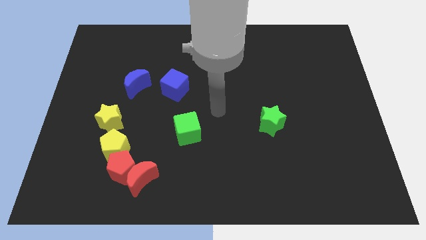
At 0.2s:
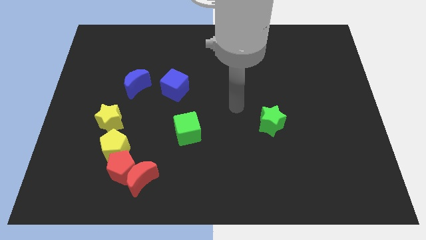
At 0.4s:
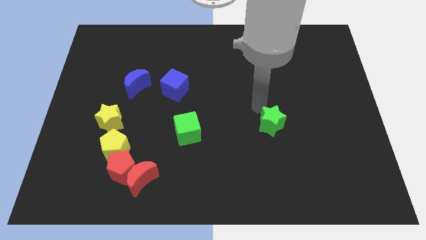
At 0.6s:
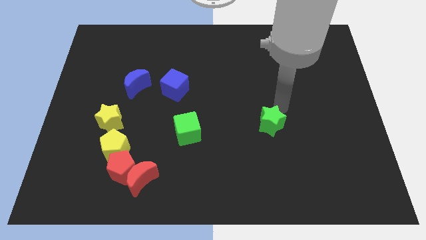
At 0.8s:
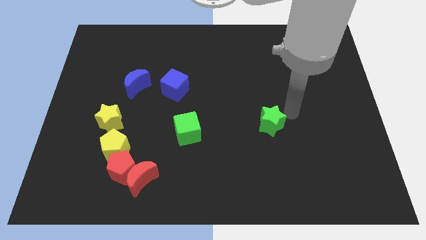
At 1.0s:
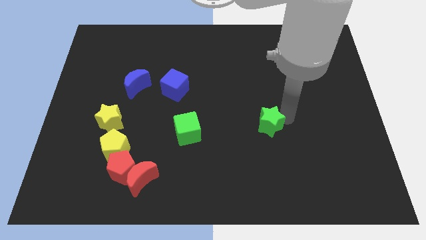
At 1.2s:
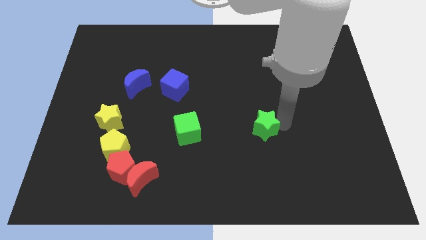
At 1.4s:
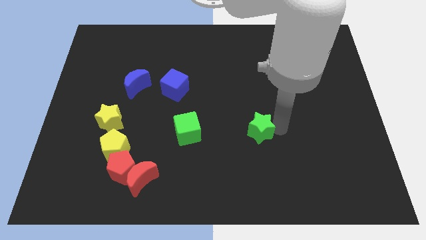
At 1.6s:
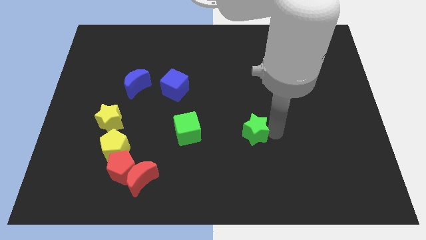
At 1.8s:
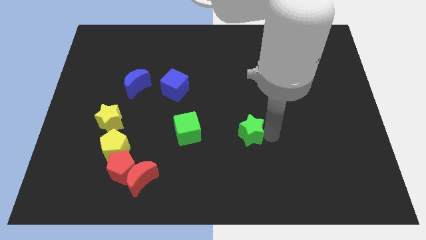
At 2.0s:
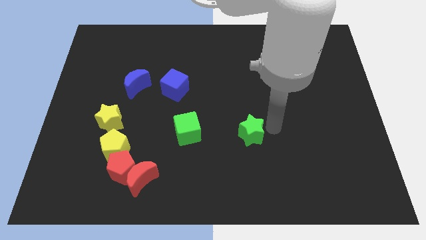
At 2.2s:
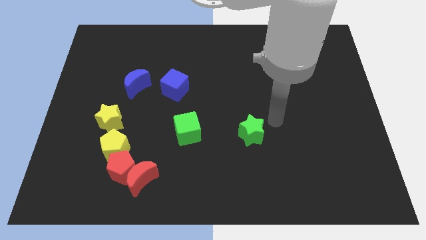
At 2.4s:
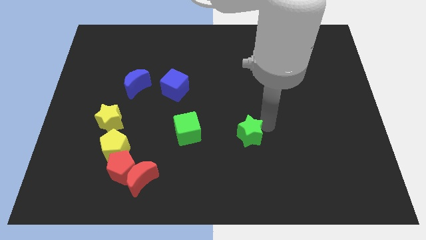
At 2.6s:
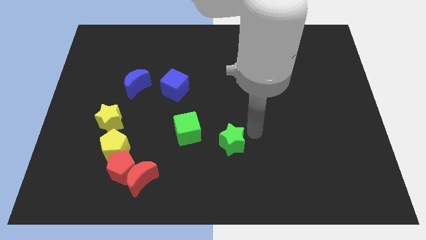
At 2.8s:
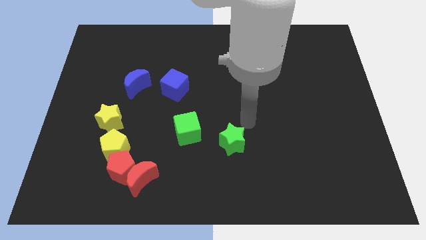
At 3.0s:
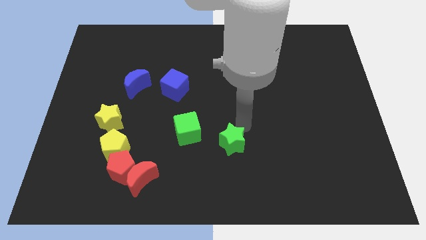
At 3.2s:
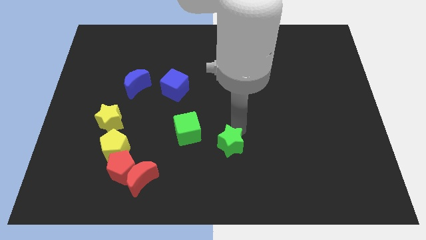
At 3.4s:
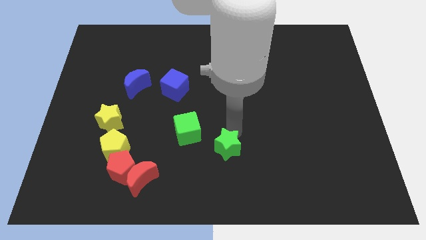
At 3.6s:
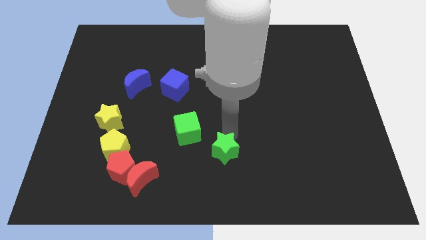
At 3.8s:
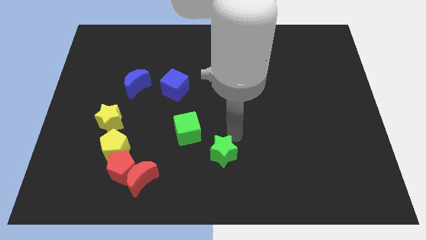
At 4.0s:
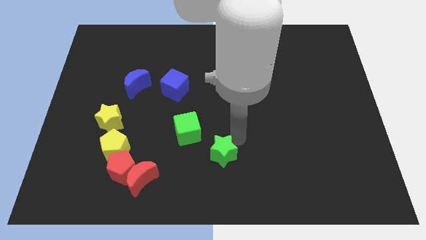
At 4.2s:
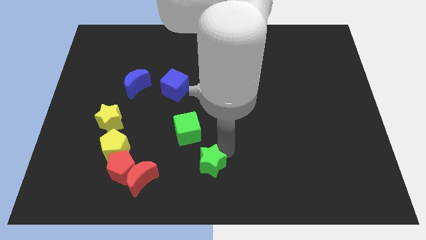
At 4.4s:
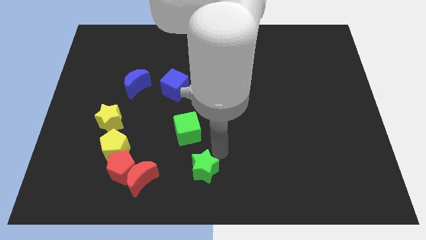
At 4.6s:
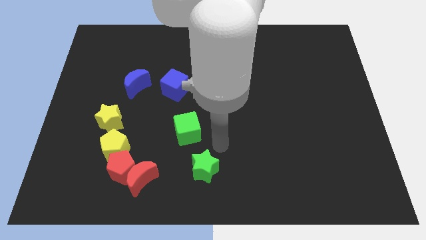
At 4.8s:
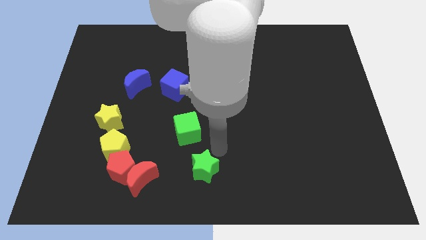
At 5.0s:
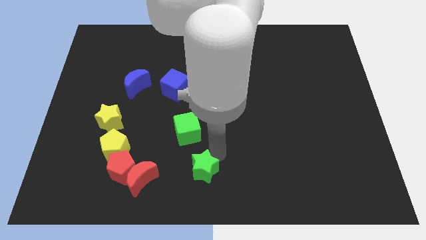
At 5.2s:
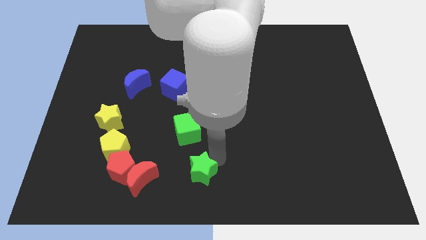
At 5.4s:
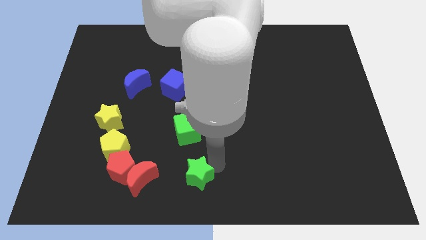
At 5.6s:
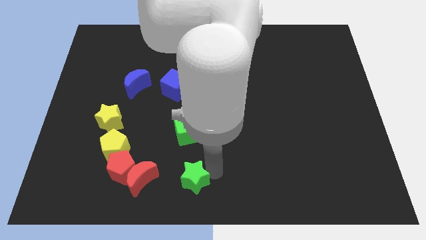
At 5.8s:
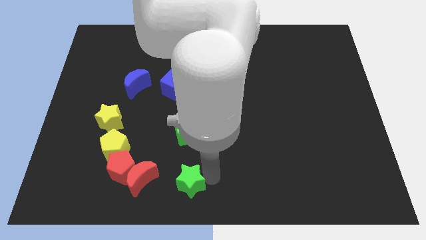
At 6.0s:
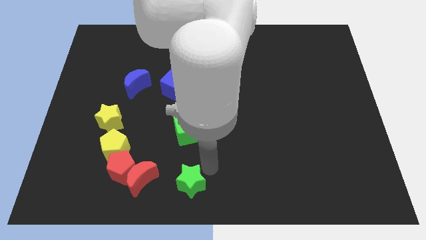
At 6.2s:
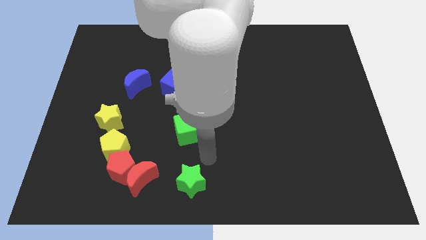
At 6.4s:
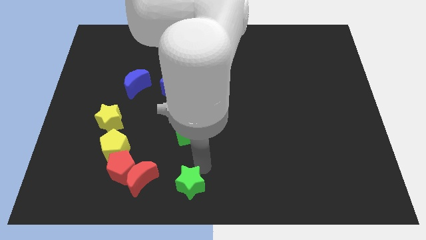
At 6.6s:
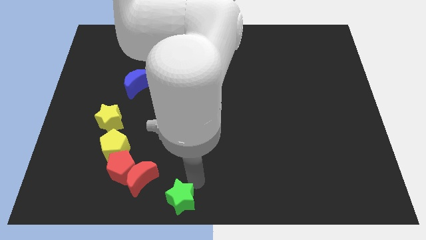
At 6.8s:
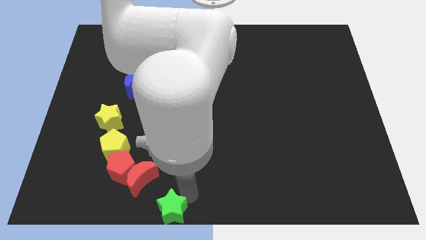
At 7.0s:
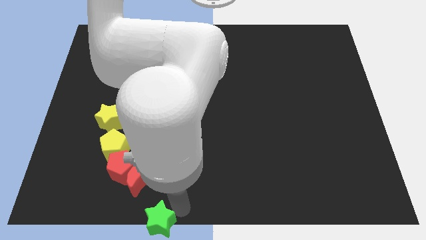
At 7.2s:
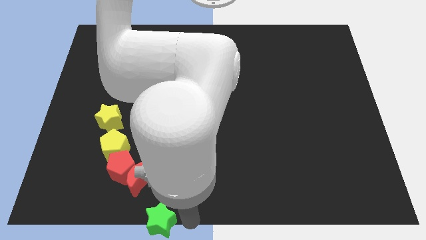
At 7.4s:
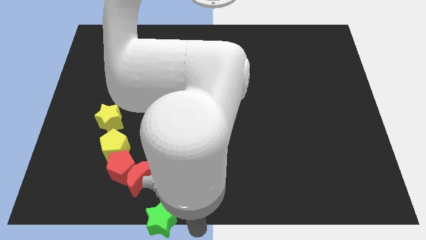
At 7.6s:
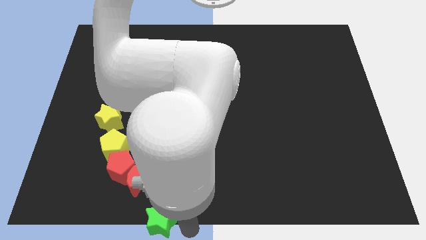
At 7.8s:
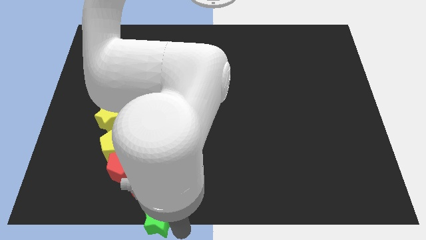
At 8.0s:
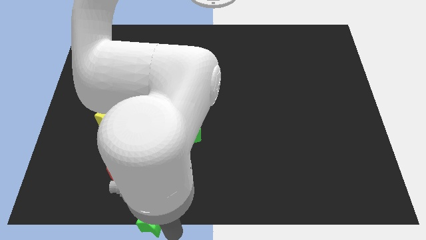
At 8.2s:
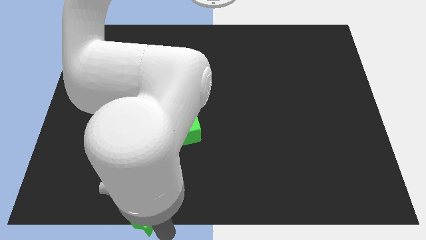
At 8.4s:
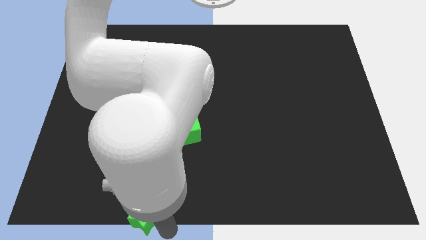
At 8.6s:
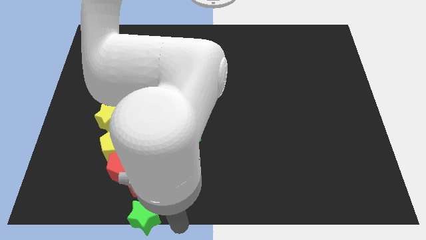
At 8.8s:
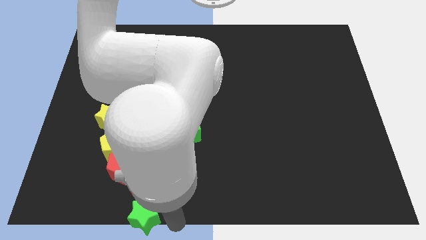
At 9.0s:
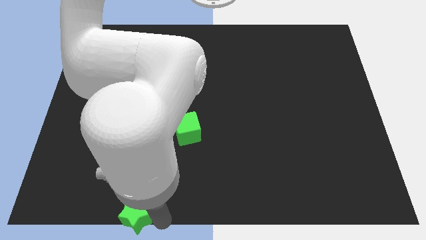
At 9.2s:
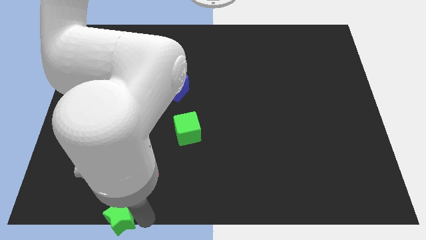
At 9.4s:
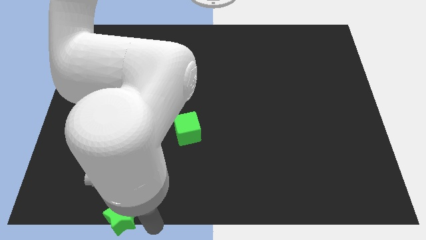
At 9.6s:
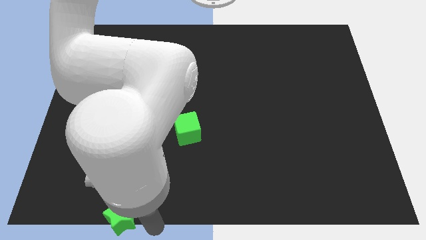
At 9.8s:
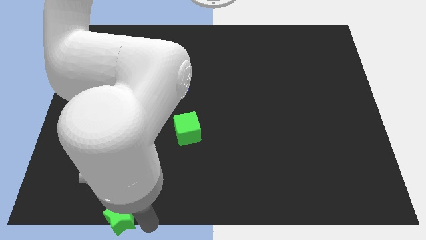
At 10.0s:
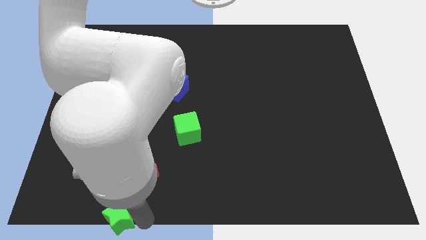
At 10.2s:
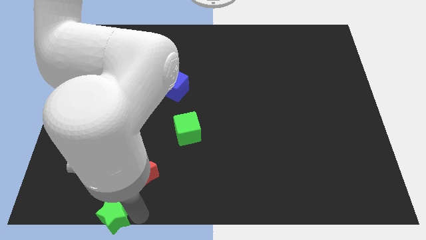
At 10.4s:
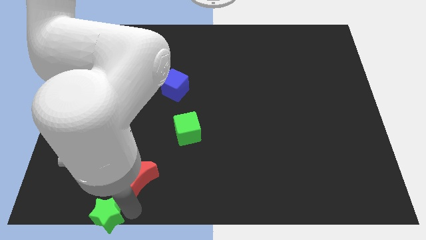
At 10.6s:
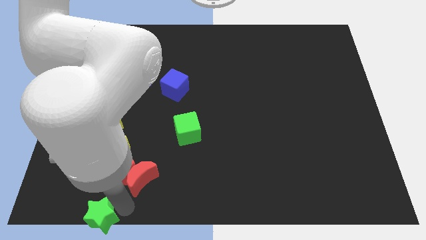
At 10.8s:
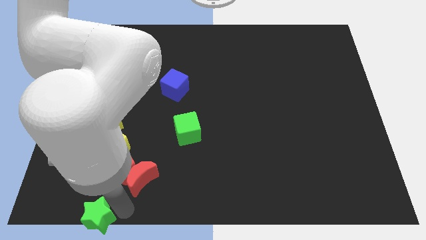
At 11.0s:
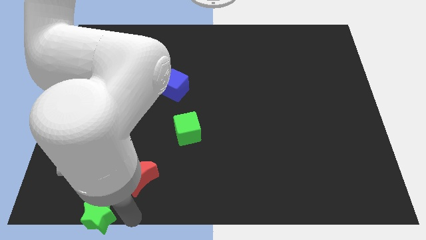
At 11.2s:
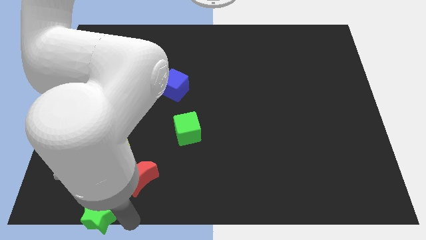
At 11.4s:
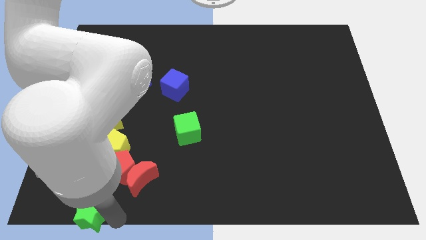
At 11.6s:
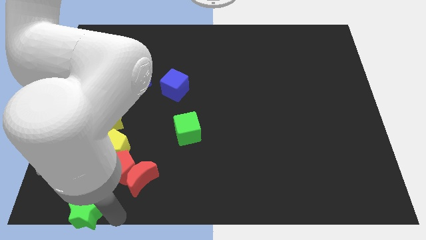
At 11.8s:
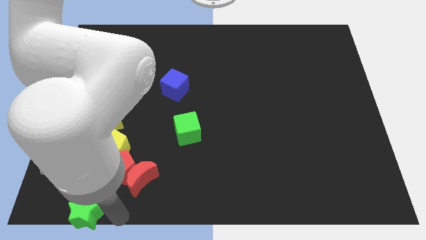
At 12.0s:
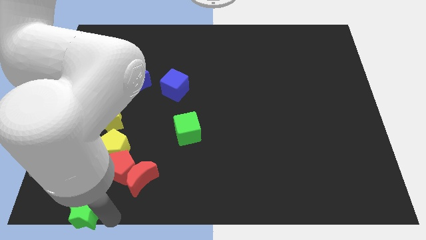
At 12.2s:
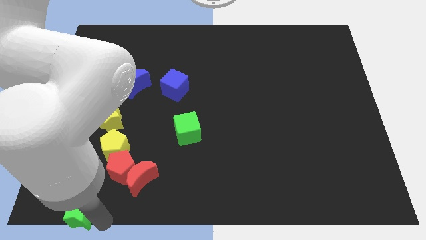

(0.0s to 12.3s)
push the green star to the bottom left

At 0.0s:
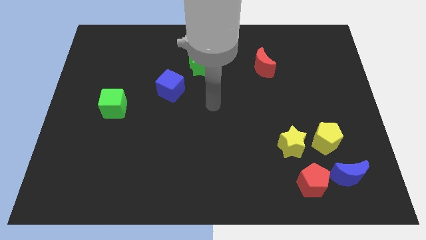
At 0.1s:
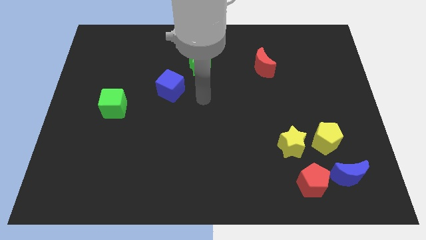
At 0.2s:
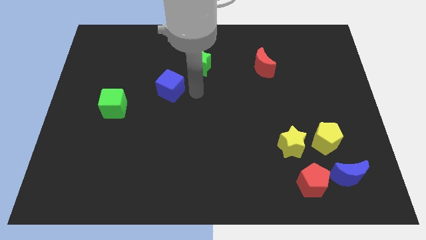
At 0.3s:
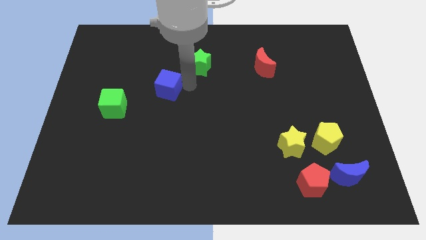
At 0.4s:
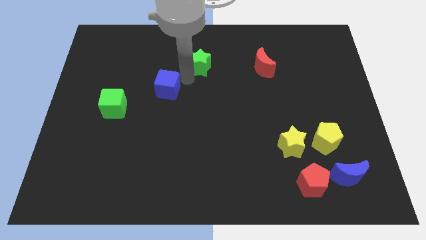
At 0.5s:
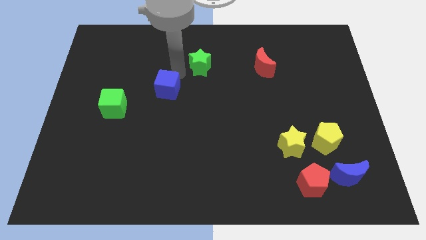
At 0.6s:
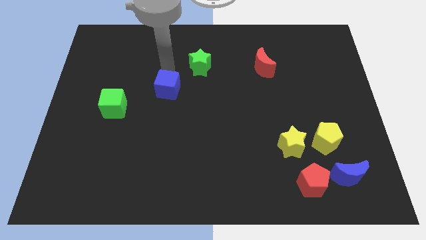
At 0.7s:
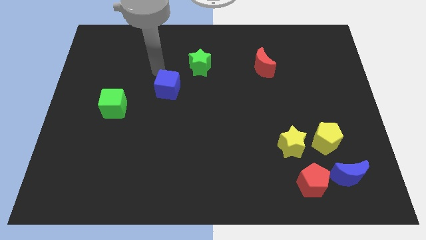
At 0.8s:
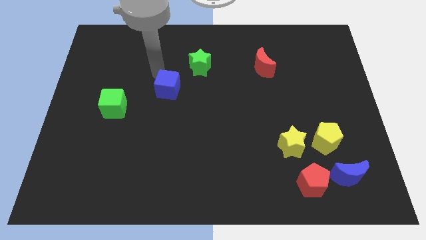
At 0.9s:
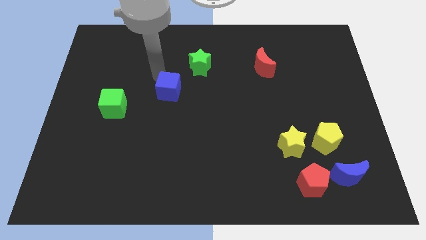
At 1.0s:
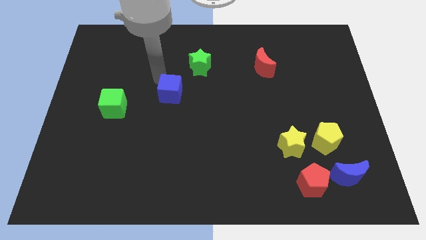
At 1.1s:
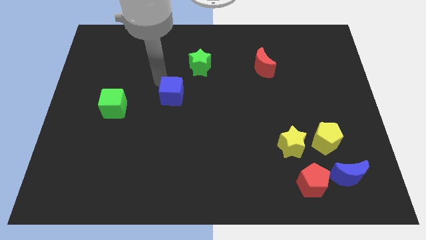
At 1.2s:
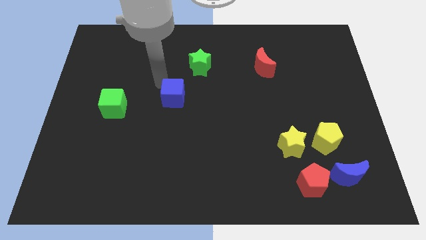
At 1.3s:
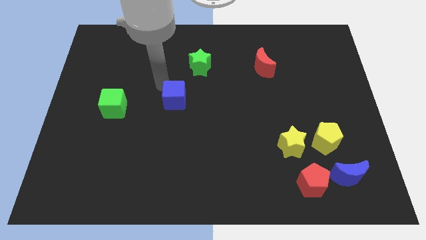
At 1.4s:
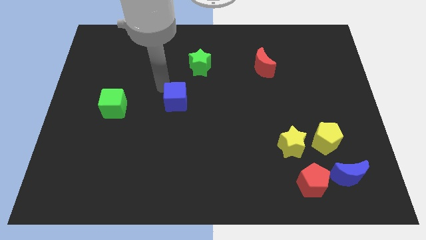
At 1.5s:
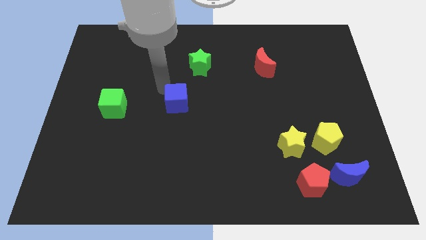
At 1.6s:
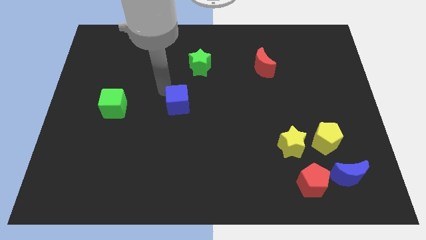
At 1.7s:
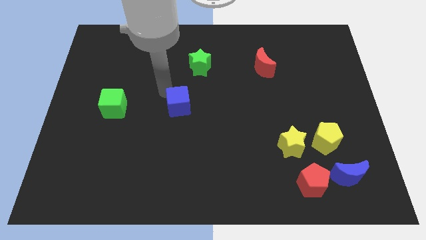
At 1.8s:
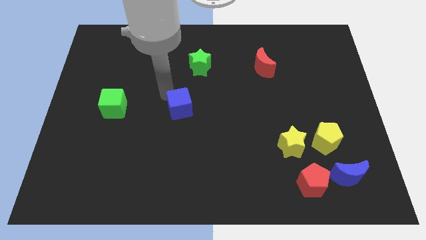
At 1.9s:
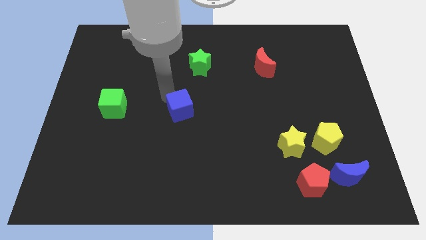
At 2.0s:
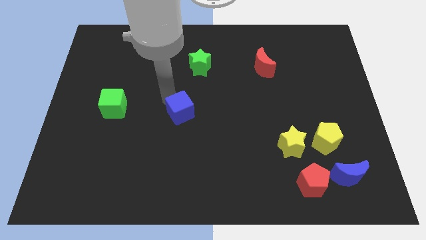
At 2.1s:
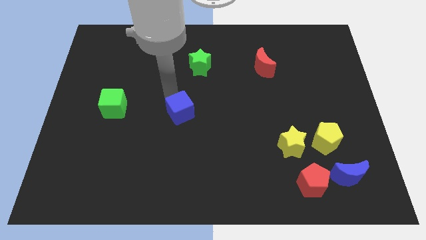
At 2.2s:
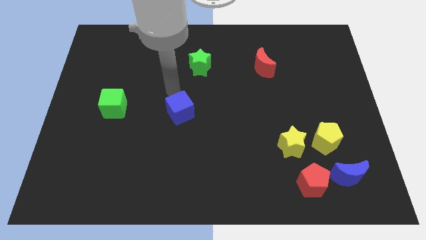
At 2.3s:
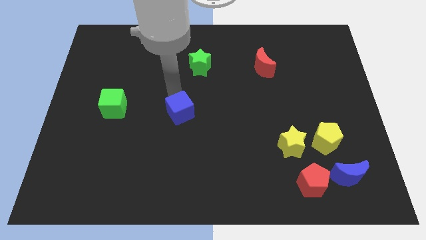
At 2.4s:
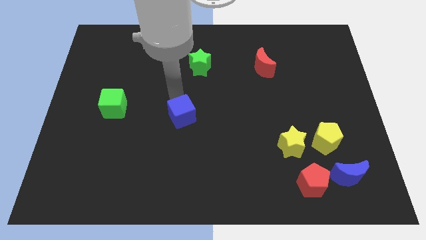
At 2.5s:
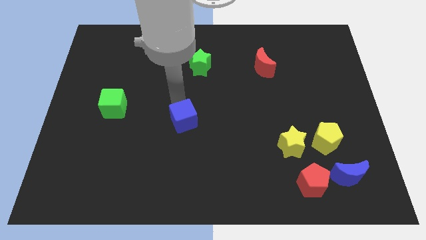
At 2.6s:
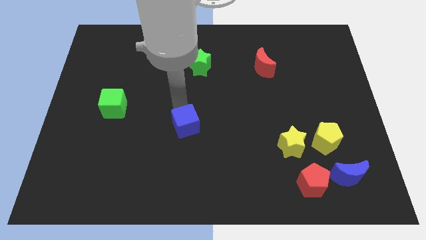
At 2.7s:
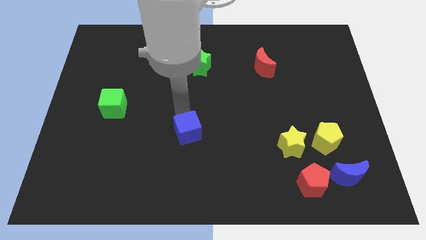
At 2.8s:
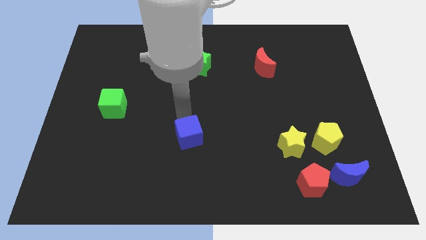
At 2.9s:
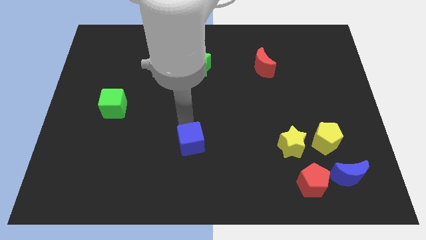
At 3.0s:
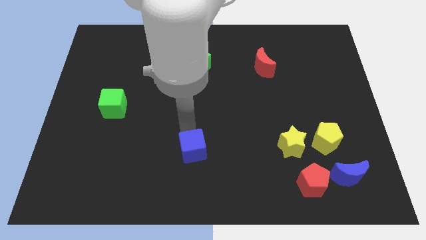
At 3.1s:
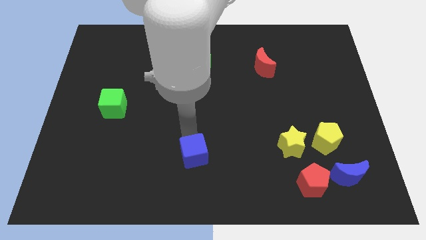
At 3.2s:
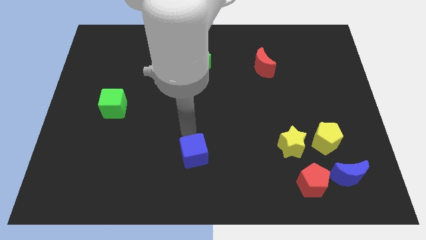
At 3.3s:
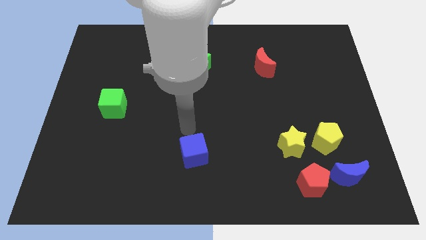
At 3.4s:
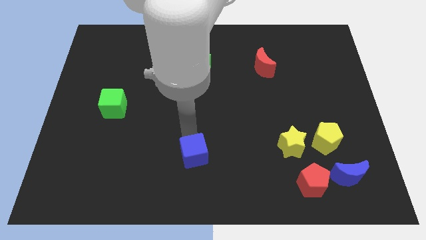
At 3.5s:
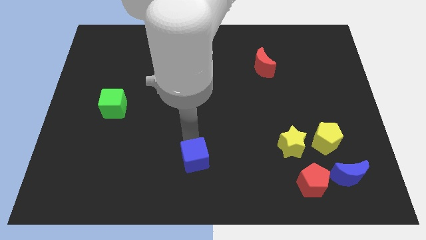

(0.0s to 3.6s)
slide the blue cube to the bottom
